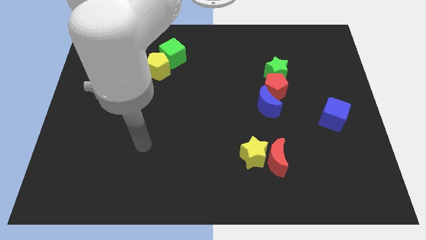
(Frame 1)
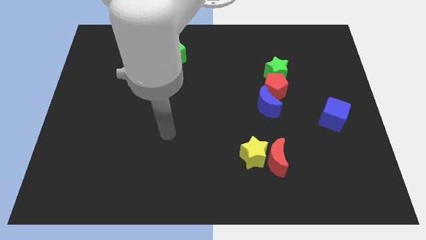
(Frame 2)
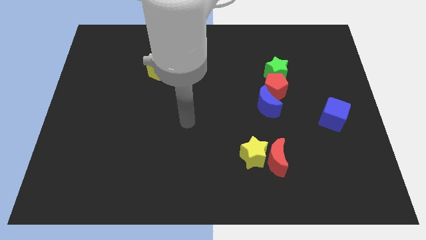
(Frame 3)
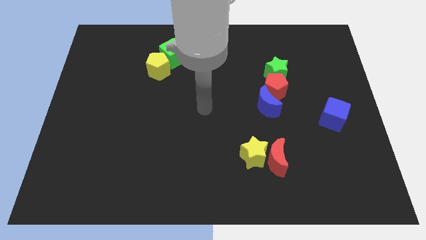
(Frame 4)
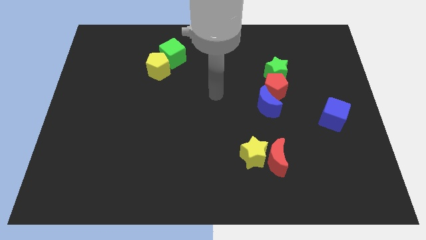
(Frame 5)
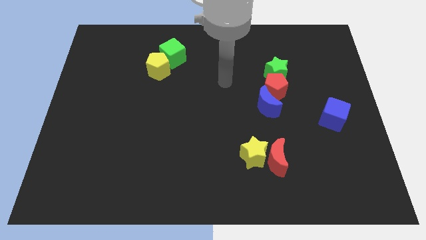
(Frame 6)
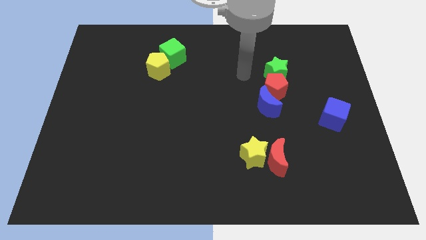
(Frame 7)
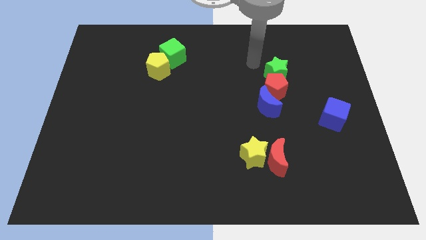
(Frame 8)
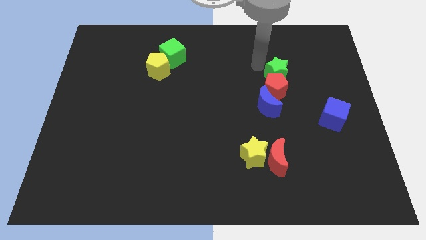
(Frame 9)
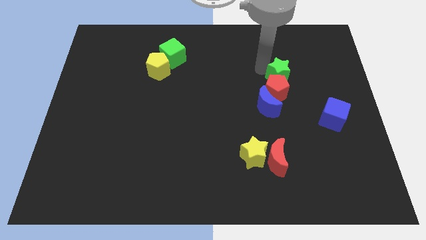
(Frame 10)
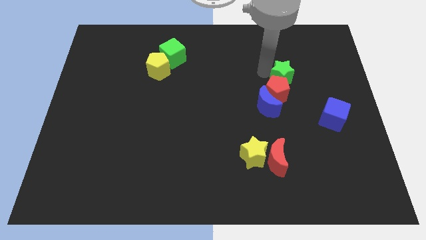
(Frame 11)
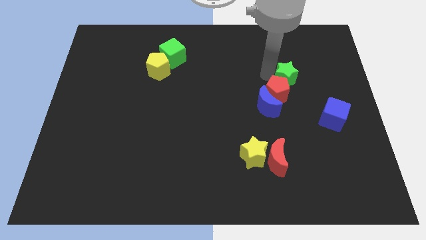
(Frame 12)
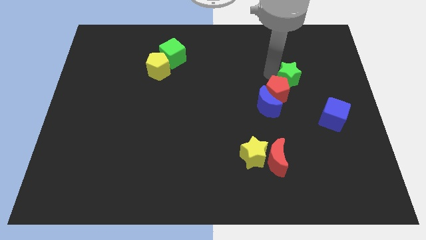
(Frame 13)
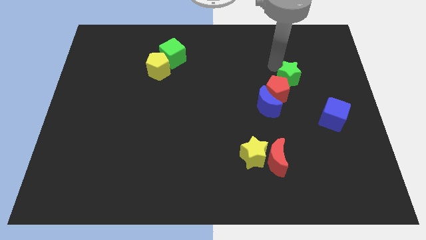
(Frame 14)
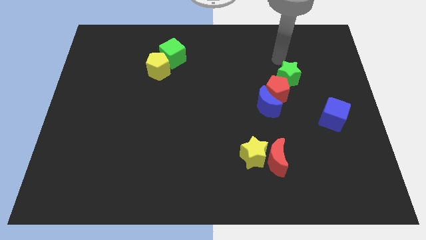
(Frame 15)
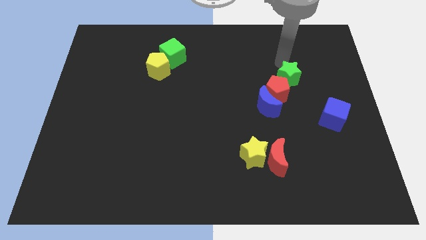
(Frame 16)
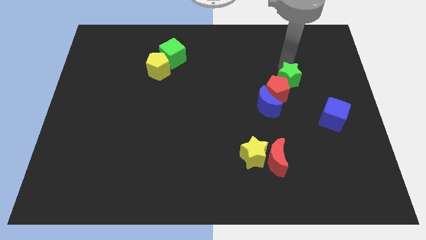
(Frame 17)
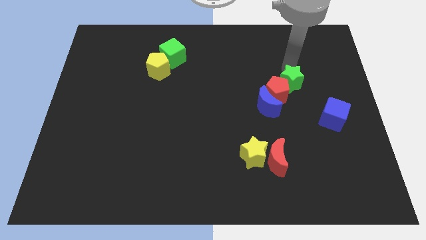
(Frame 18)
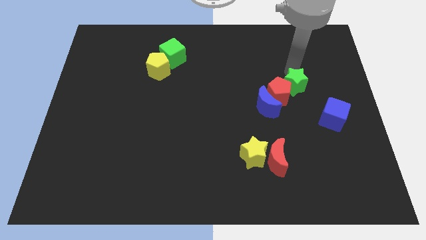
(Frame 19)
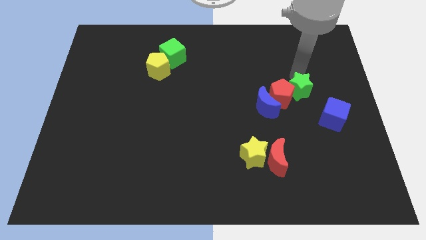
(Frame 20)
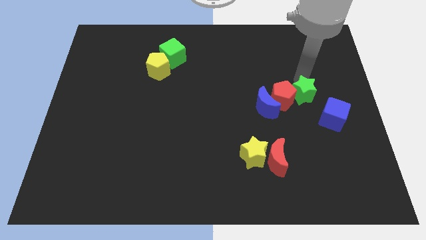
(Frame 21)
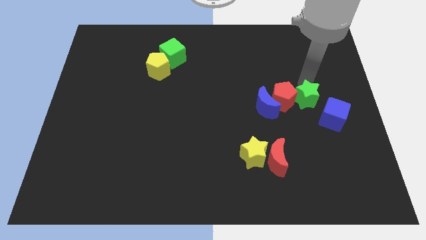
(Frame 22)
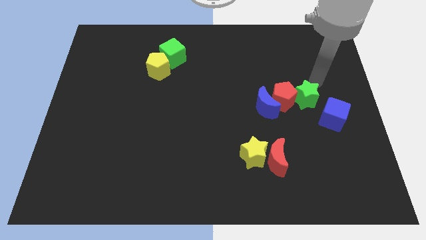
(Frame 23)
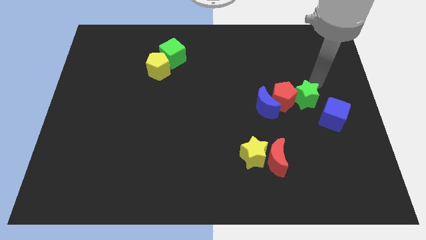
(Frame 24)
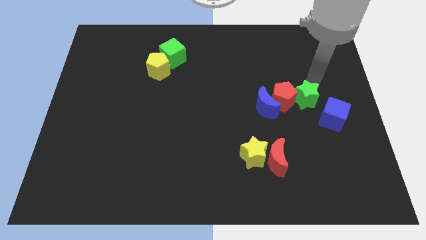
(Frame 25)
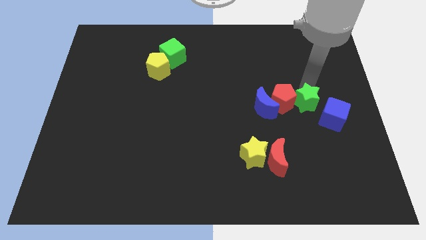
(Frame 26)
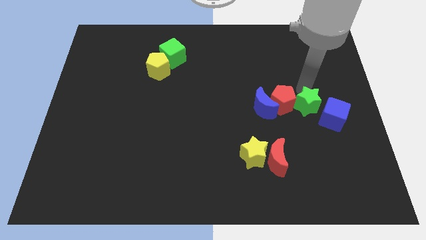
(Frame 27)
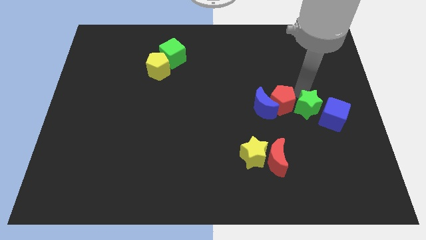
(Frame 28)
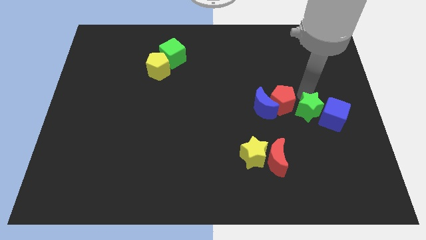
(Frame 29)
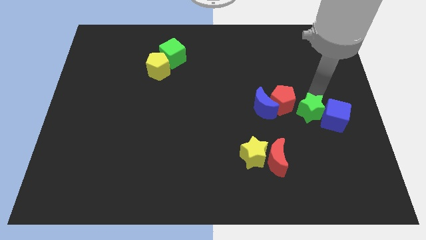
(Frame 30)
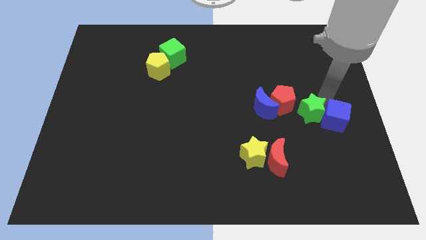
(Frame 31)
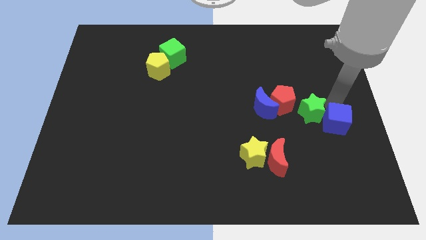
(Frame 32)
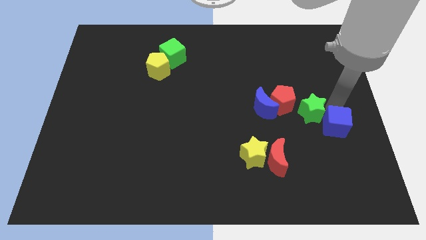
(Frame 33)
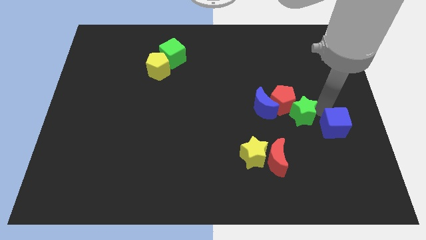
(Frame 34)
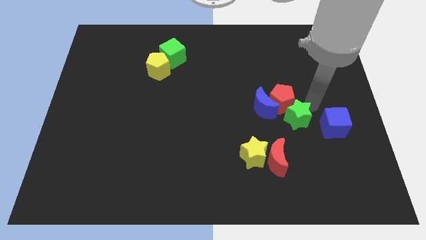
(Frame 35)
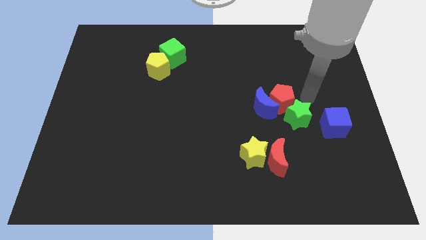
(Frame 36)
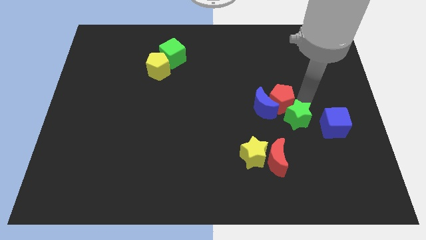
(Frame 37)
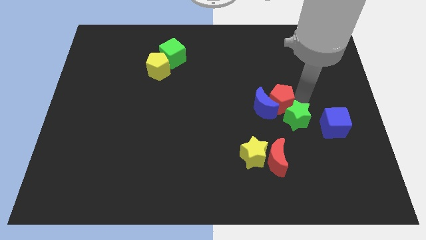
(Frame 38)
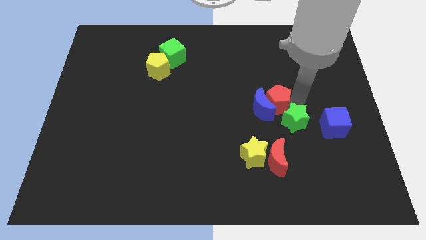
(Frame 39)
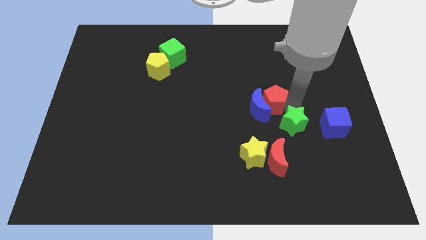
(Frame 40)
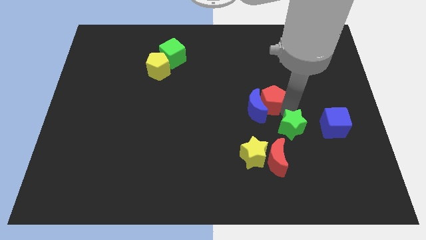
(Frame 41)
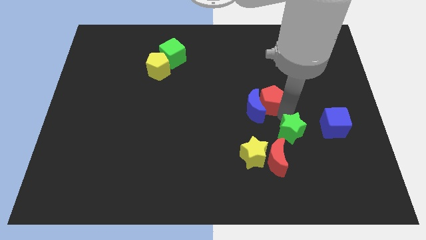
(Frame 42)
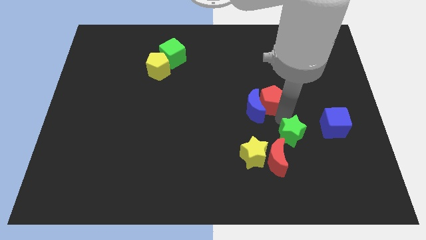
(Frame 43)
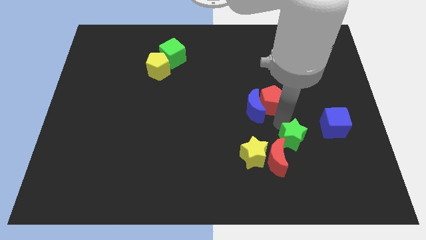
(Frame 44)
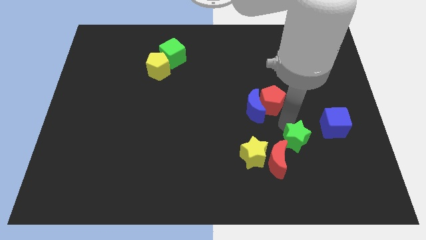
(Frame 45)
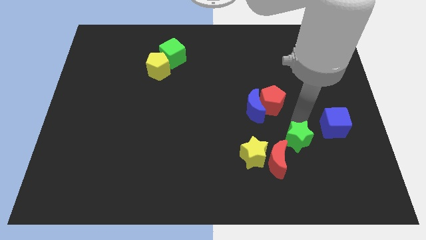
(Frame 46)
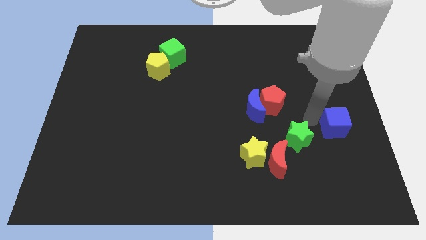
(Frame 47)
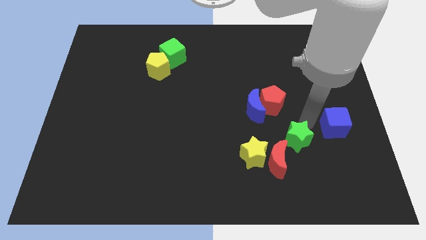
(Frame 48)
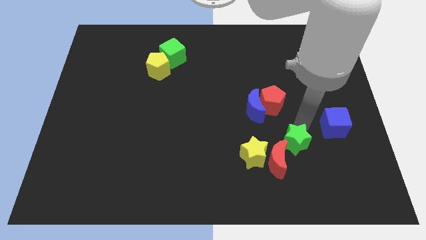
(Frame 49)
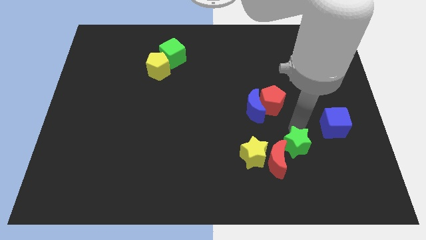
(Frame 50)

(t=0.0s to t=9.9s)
put the green star towards the red moon

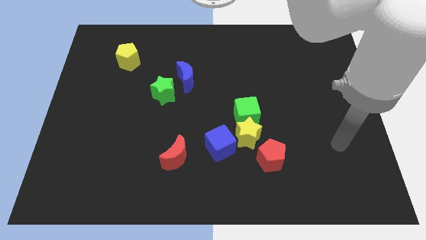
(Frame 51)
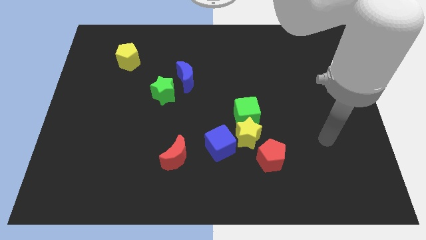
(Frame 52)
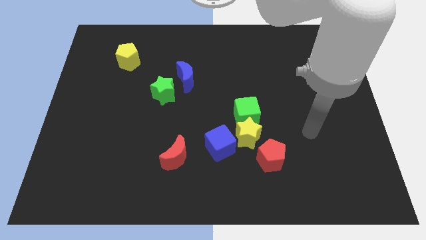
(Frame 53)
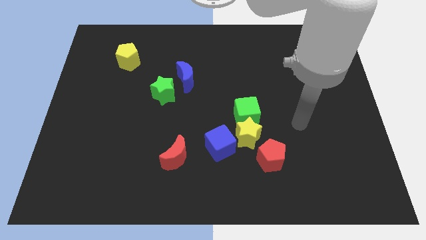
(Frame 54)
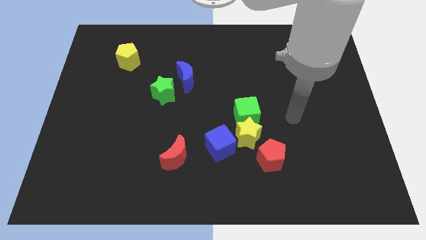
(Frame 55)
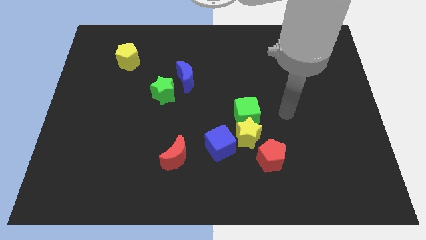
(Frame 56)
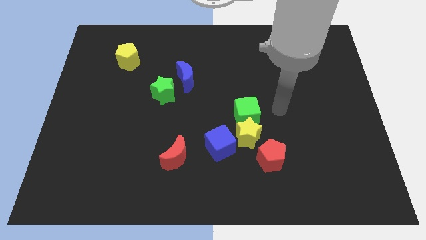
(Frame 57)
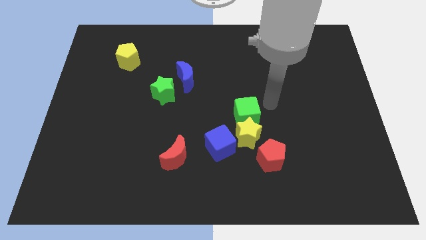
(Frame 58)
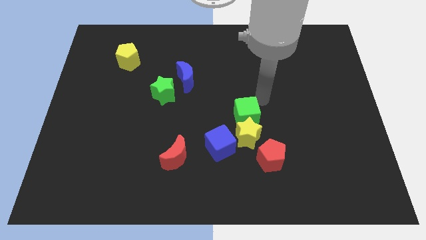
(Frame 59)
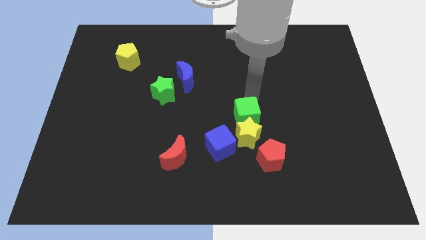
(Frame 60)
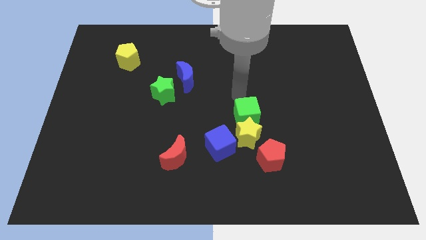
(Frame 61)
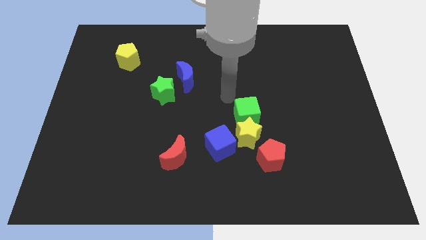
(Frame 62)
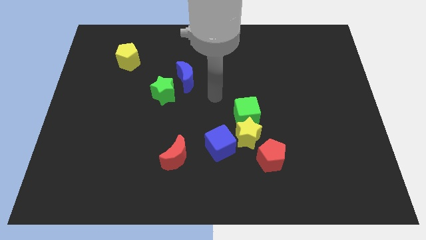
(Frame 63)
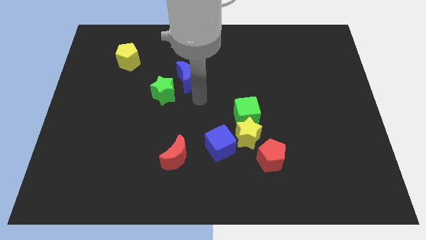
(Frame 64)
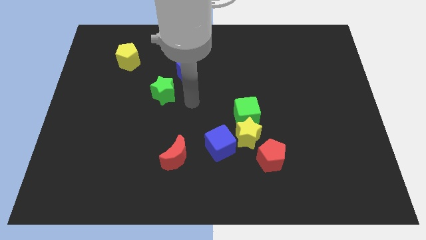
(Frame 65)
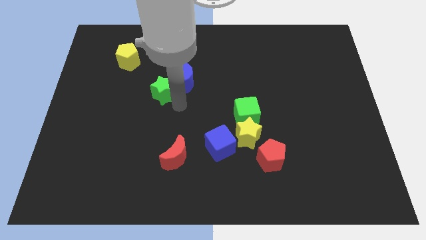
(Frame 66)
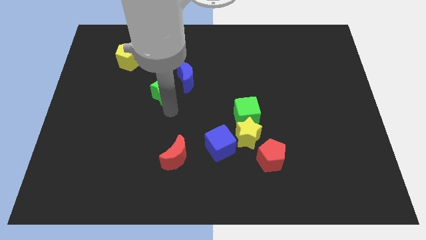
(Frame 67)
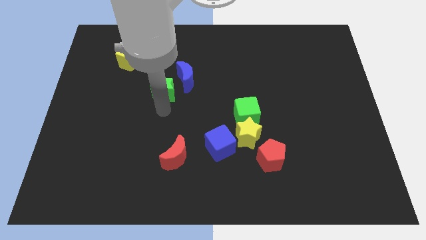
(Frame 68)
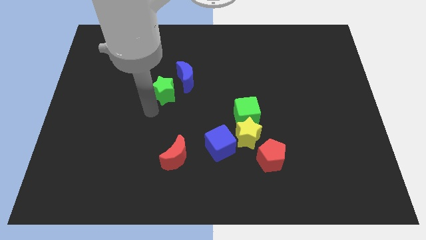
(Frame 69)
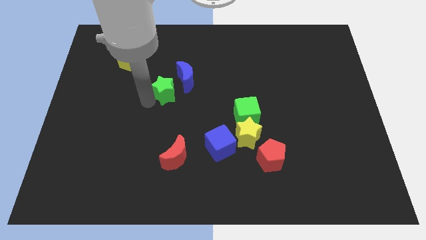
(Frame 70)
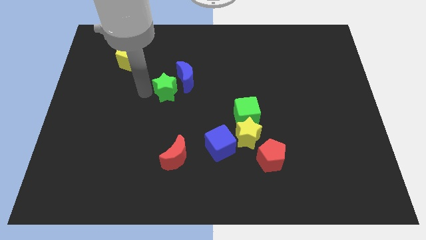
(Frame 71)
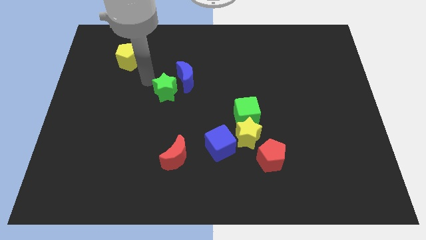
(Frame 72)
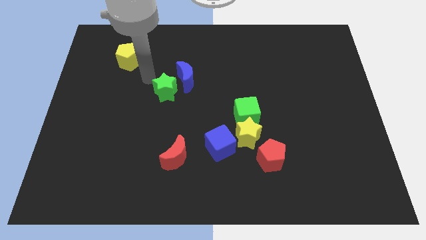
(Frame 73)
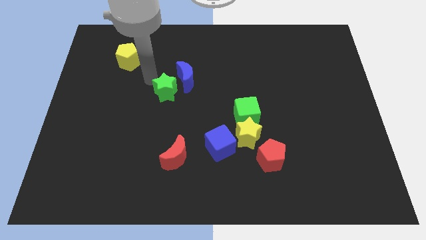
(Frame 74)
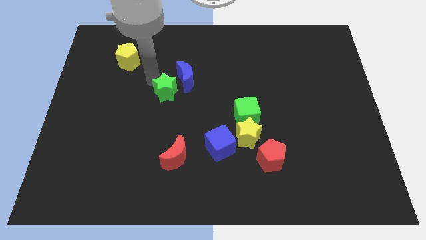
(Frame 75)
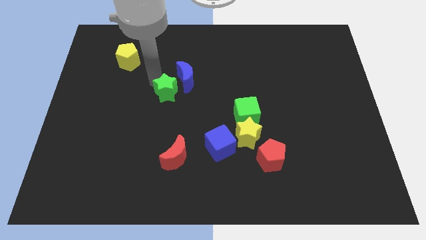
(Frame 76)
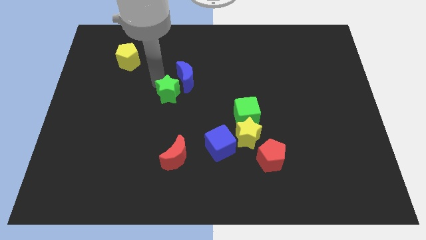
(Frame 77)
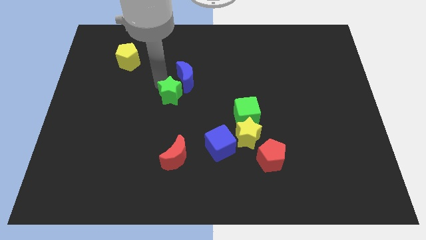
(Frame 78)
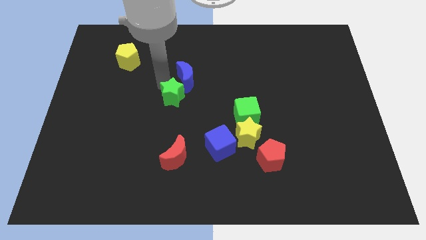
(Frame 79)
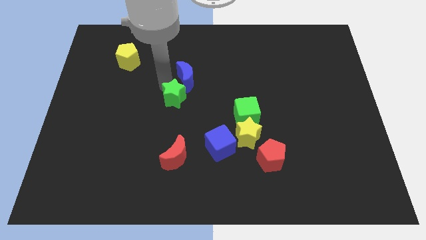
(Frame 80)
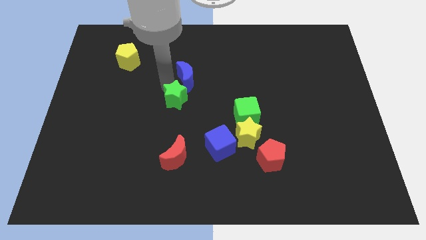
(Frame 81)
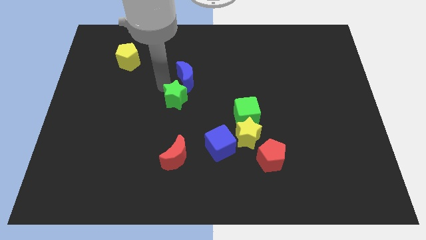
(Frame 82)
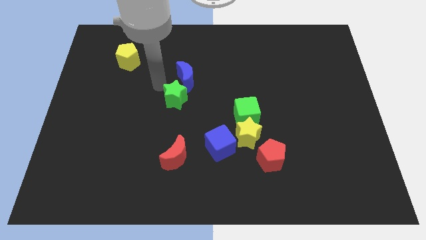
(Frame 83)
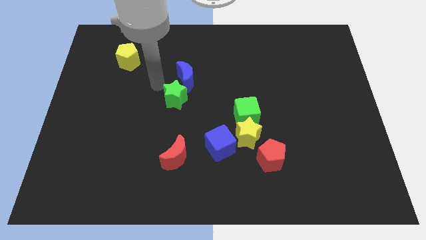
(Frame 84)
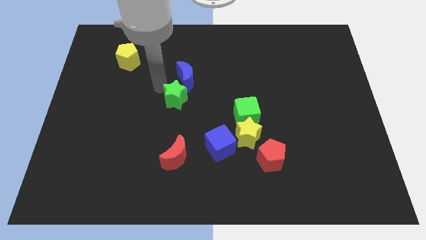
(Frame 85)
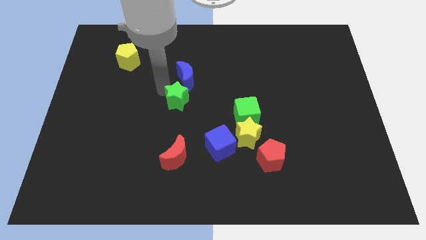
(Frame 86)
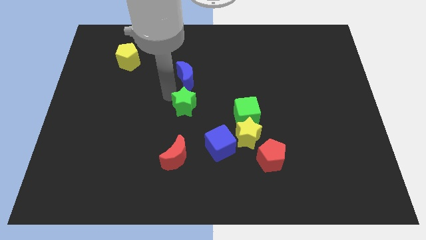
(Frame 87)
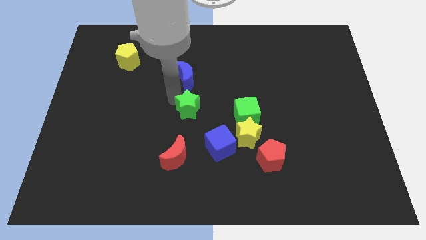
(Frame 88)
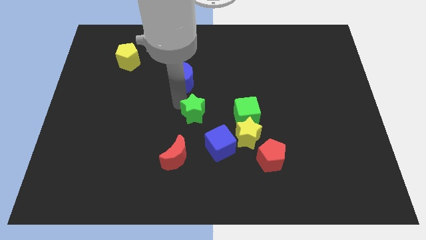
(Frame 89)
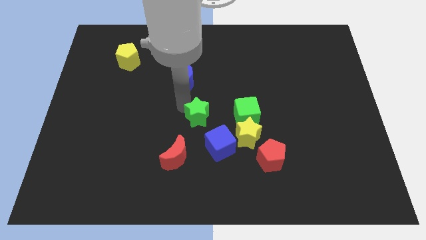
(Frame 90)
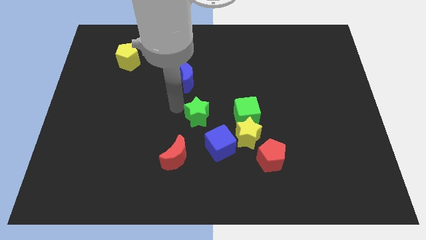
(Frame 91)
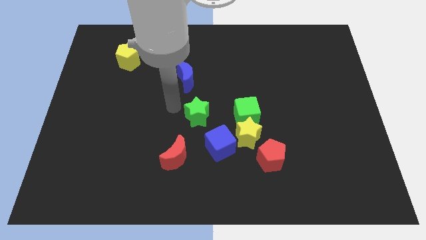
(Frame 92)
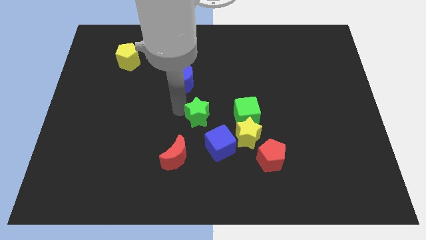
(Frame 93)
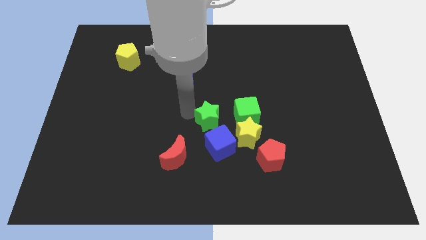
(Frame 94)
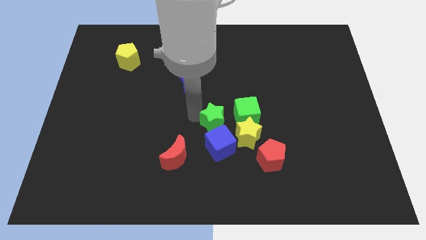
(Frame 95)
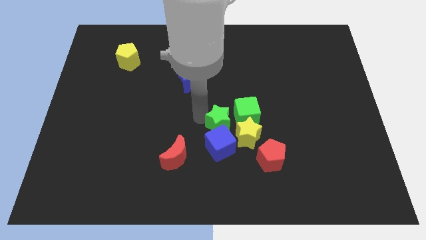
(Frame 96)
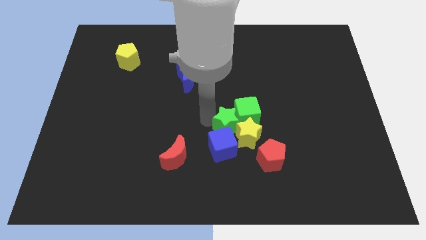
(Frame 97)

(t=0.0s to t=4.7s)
move the green star next to the yellow star
